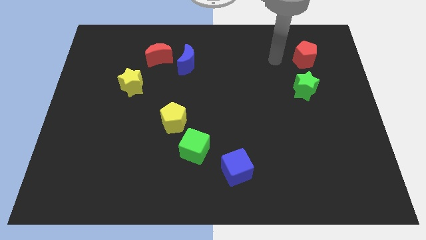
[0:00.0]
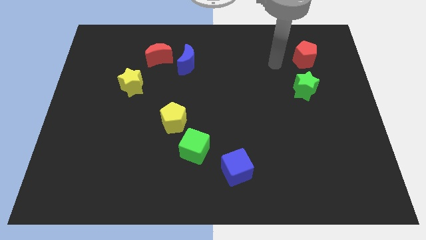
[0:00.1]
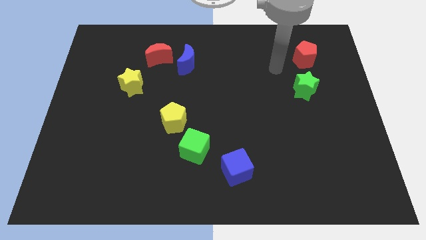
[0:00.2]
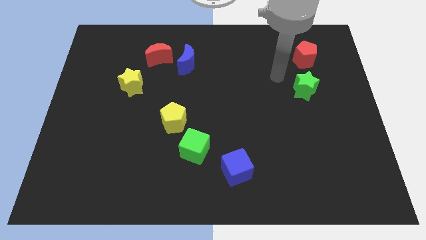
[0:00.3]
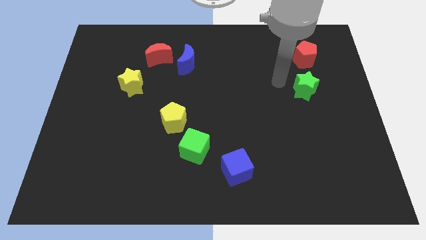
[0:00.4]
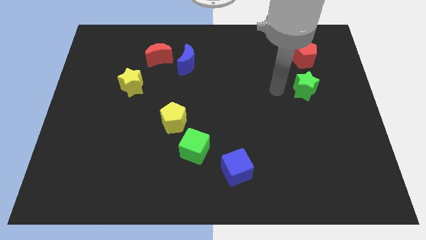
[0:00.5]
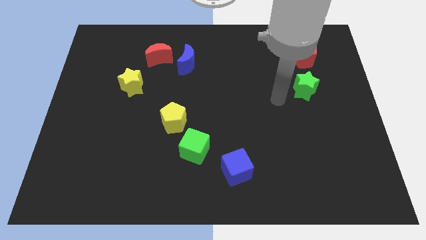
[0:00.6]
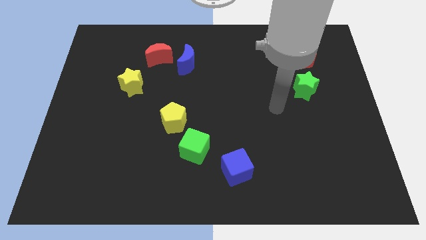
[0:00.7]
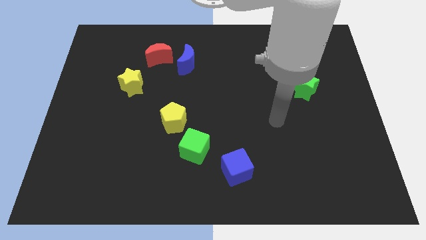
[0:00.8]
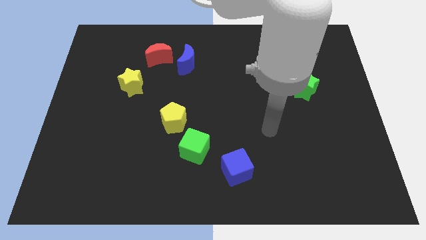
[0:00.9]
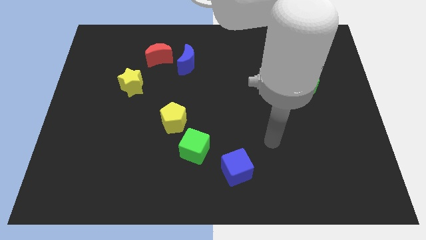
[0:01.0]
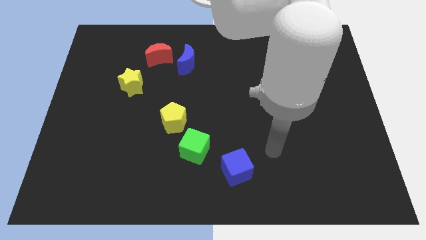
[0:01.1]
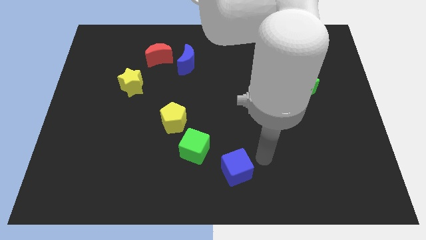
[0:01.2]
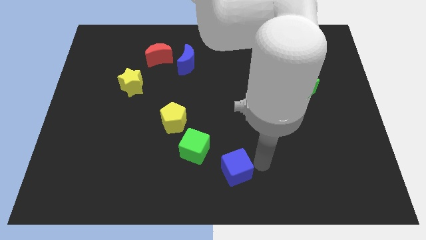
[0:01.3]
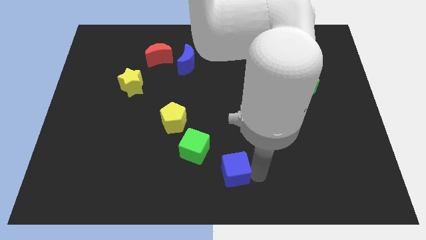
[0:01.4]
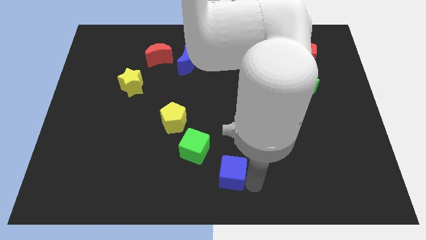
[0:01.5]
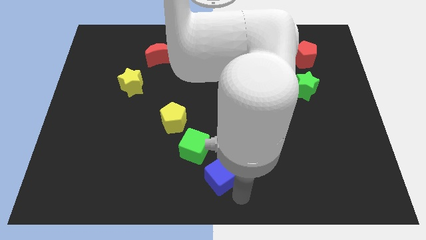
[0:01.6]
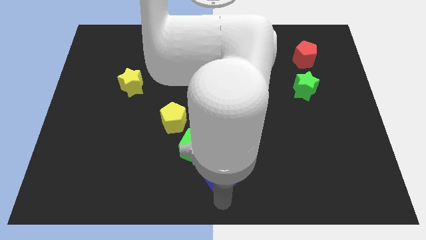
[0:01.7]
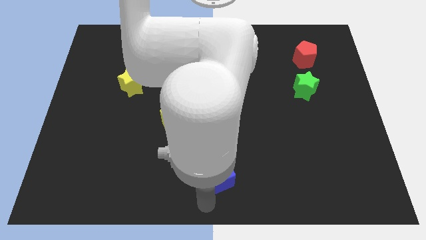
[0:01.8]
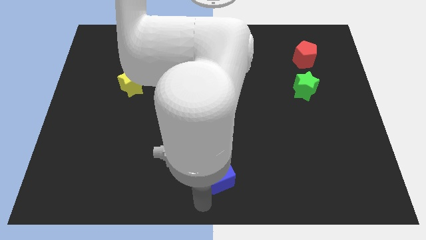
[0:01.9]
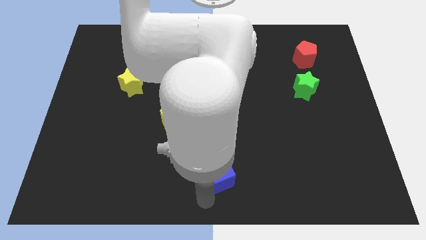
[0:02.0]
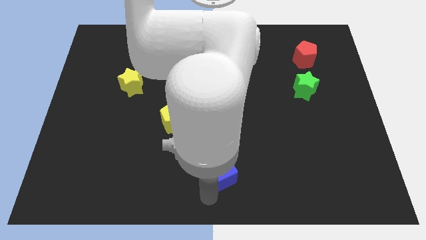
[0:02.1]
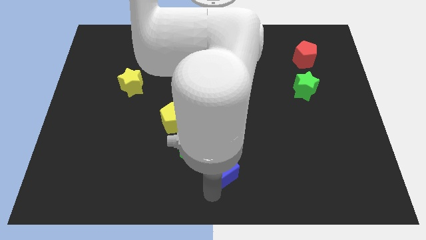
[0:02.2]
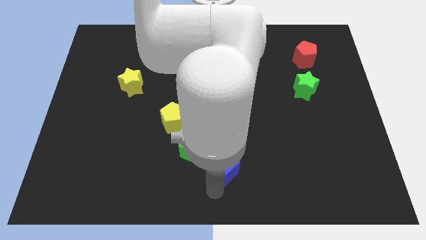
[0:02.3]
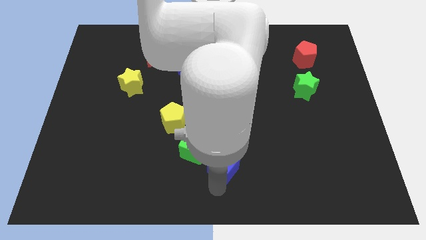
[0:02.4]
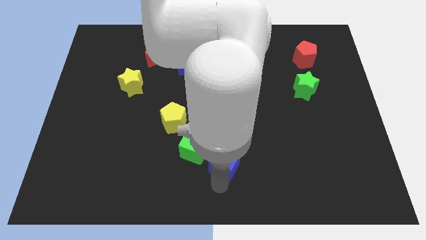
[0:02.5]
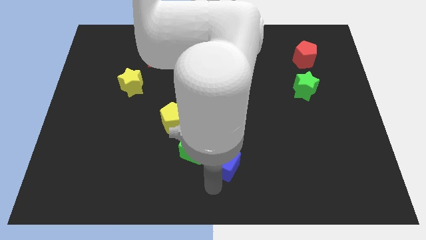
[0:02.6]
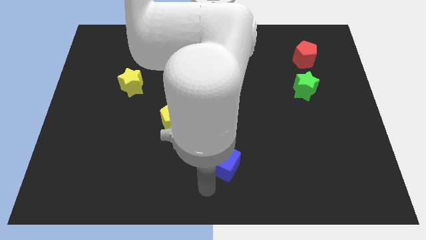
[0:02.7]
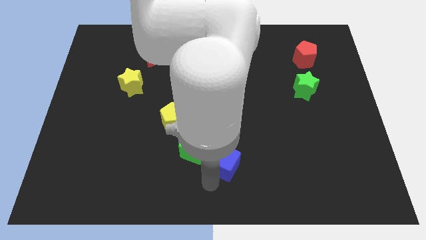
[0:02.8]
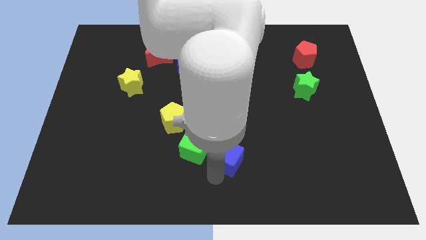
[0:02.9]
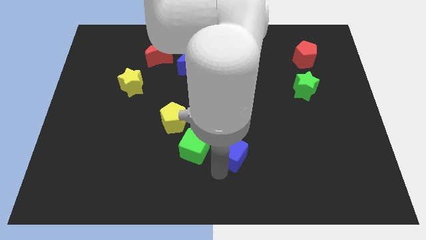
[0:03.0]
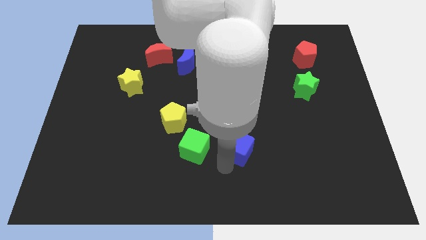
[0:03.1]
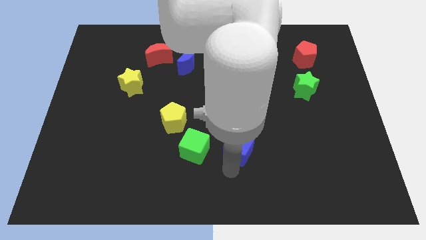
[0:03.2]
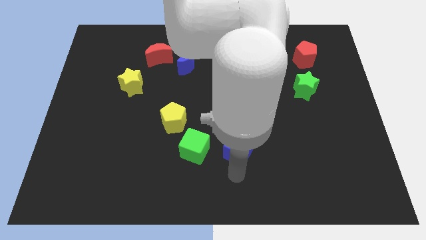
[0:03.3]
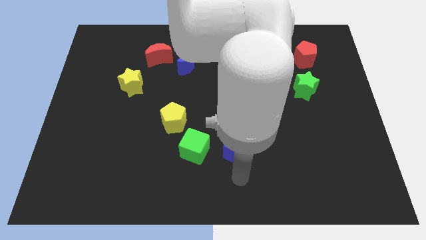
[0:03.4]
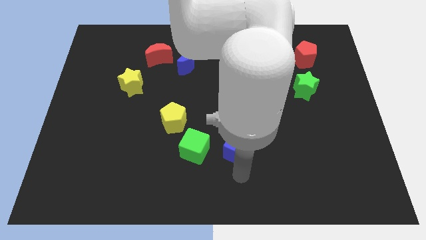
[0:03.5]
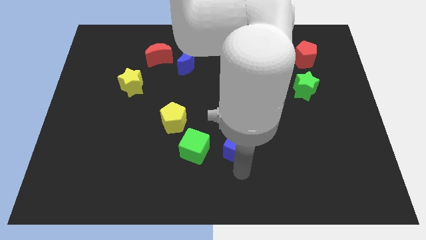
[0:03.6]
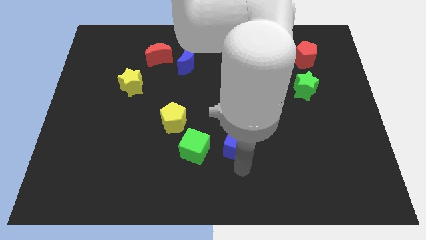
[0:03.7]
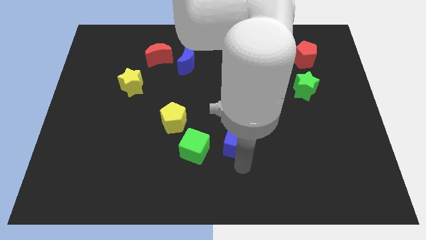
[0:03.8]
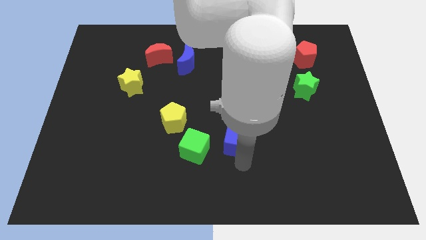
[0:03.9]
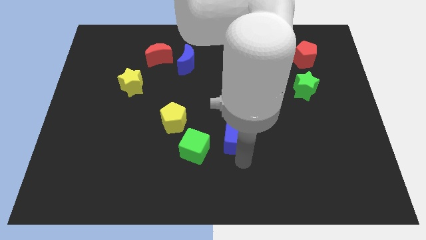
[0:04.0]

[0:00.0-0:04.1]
move the blue cube slightly up

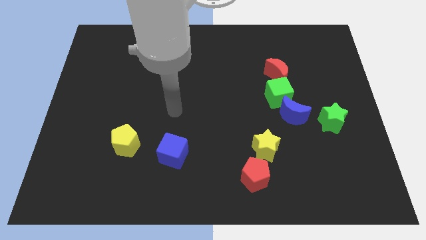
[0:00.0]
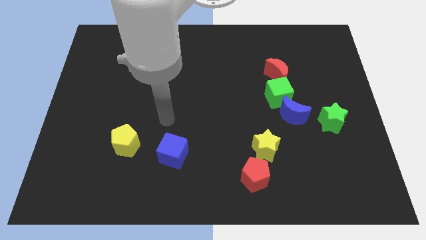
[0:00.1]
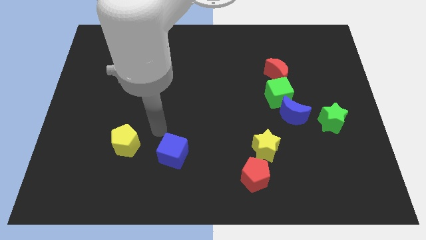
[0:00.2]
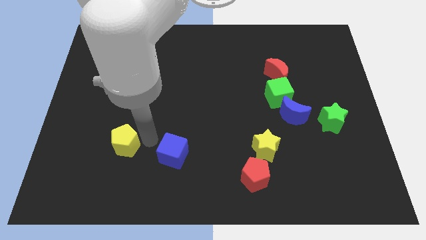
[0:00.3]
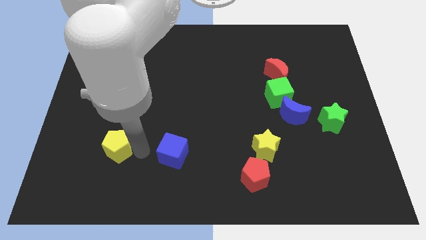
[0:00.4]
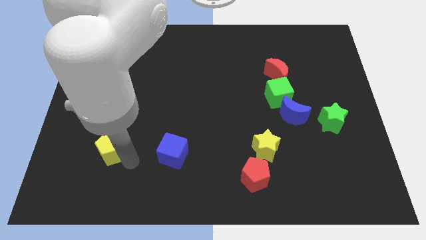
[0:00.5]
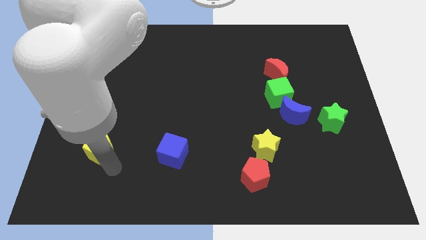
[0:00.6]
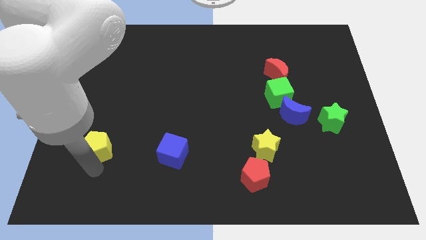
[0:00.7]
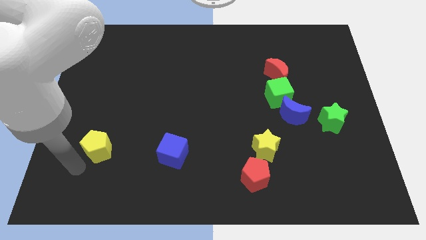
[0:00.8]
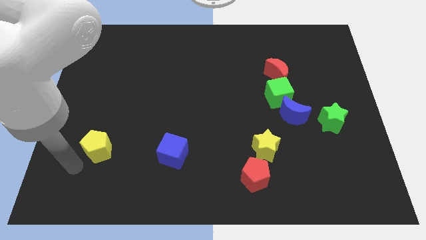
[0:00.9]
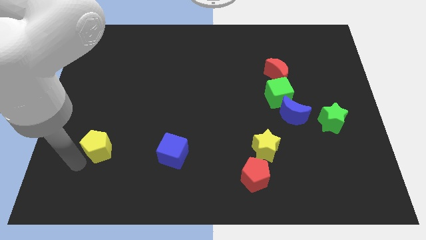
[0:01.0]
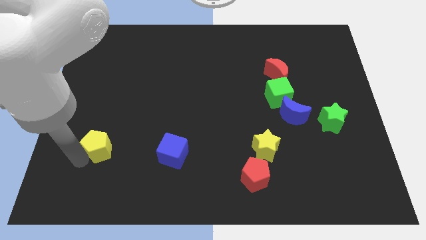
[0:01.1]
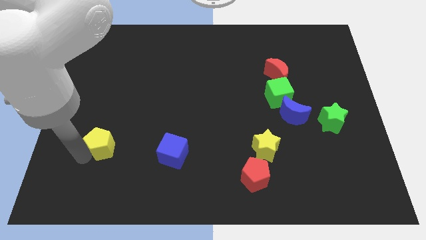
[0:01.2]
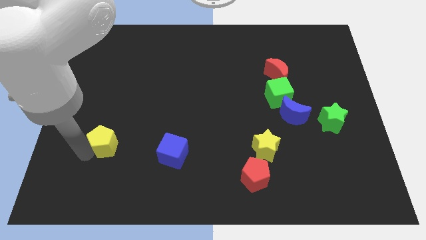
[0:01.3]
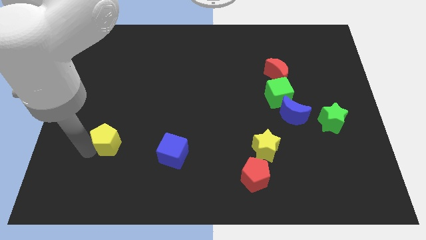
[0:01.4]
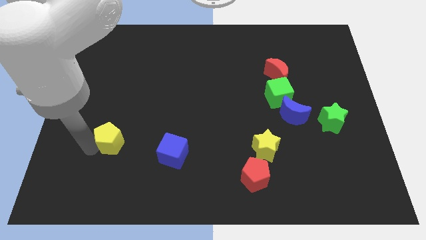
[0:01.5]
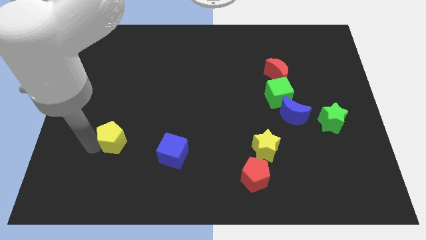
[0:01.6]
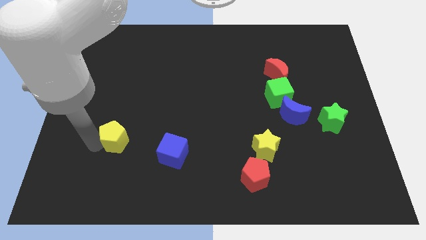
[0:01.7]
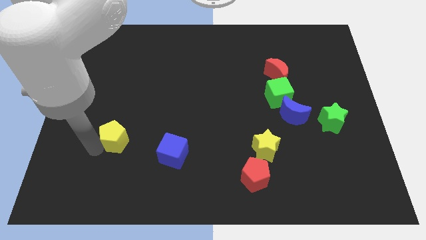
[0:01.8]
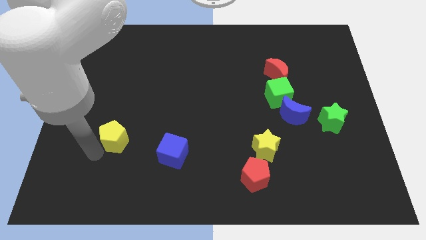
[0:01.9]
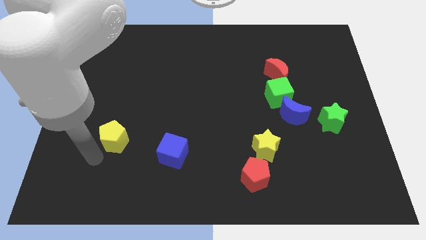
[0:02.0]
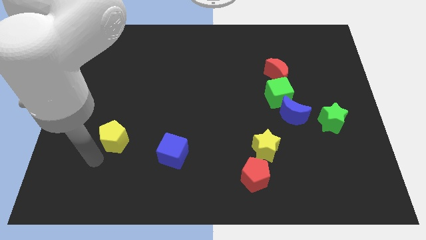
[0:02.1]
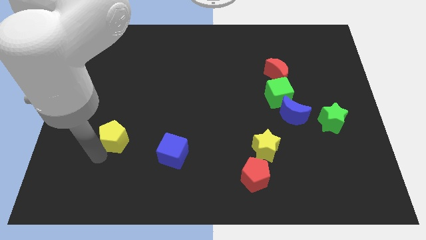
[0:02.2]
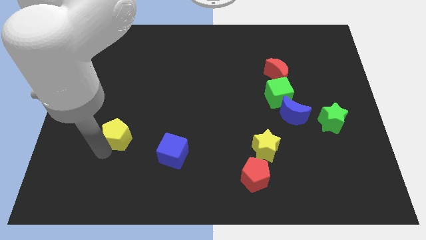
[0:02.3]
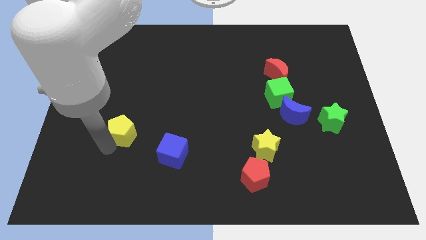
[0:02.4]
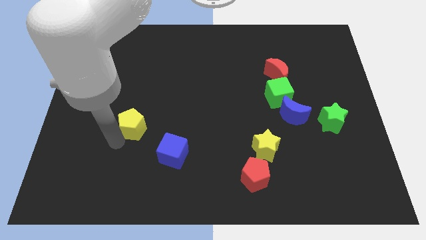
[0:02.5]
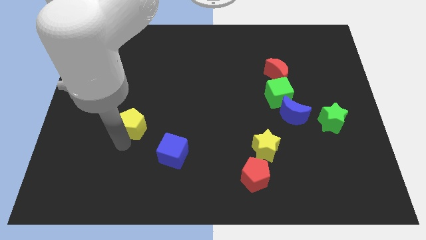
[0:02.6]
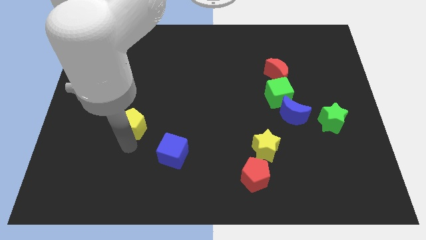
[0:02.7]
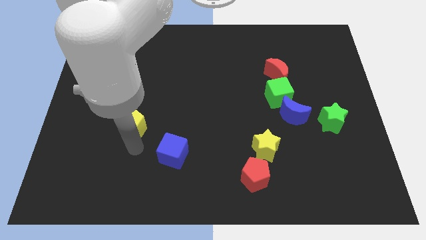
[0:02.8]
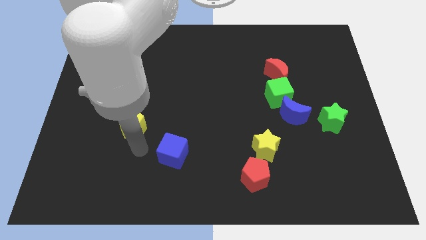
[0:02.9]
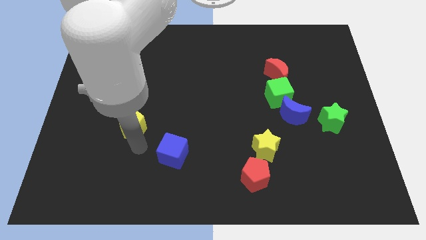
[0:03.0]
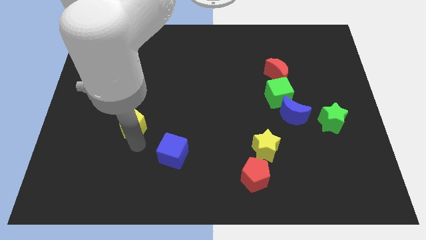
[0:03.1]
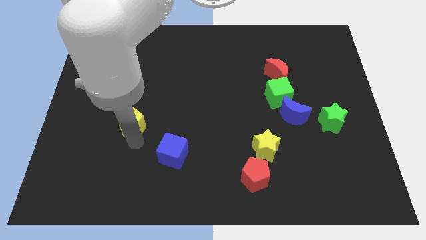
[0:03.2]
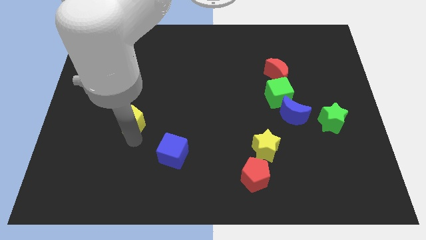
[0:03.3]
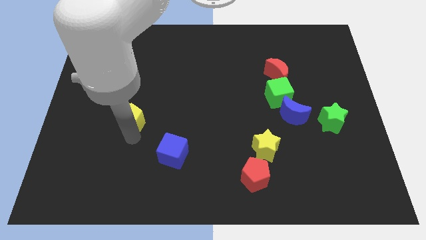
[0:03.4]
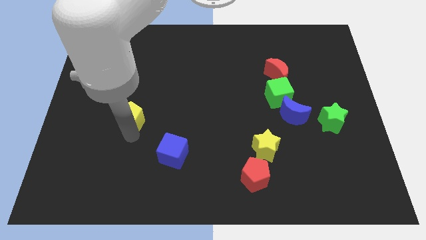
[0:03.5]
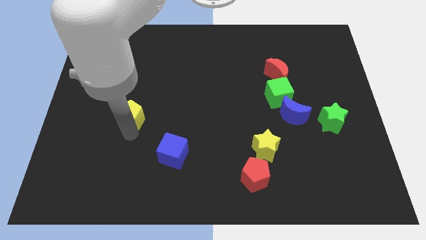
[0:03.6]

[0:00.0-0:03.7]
push the yellow pentagon up somewhat

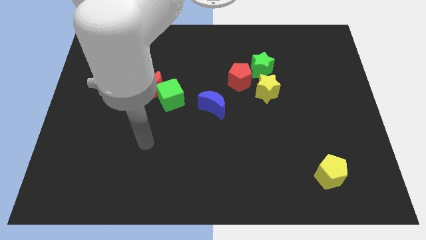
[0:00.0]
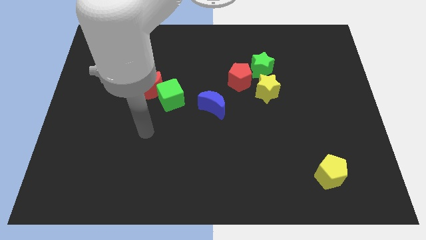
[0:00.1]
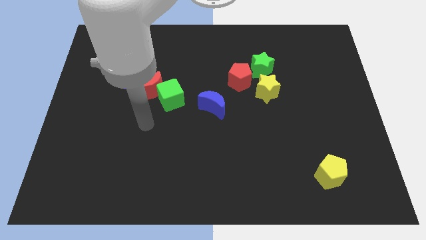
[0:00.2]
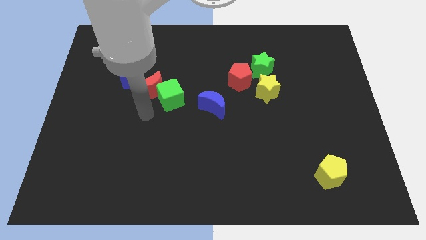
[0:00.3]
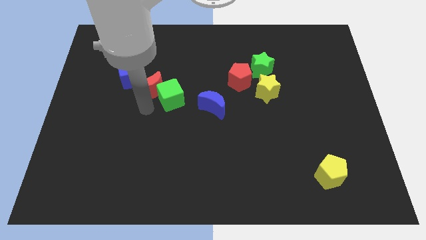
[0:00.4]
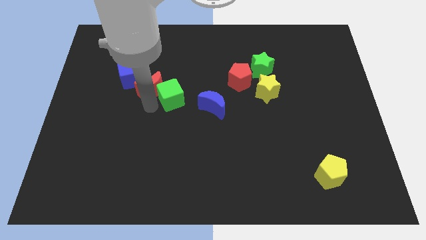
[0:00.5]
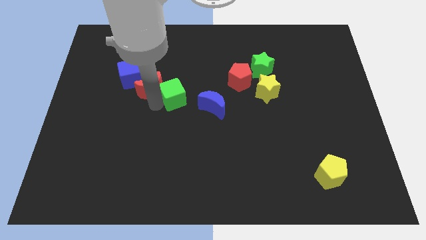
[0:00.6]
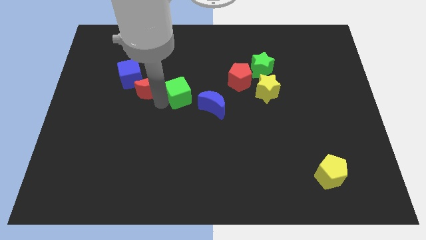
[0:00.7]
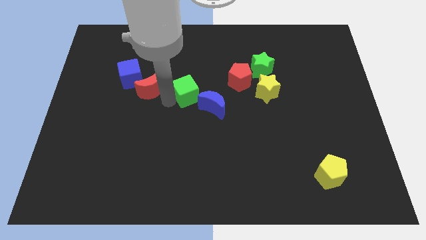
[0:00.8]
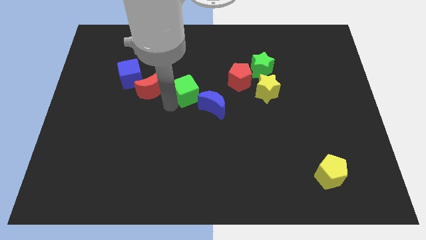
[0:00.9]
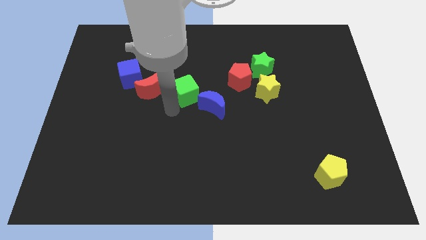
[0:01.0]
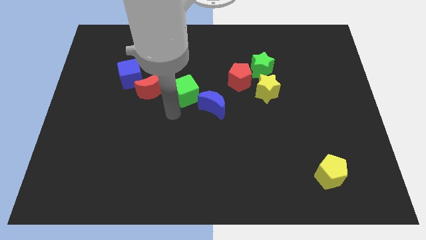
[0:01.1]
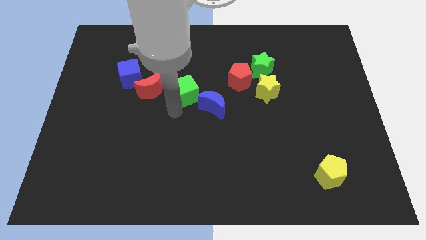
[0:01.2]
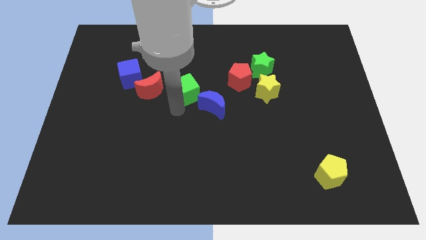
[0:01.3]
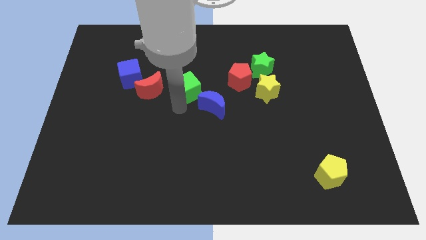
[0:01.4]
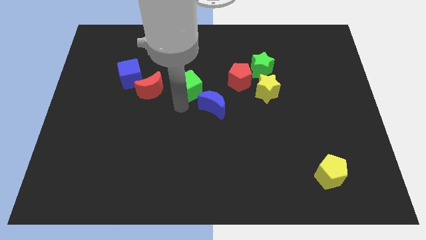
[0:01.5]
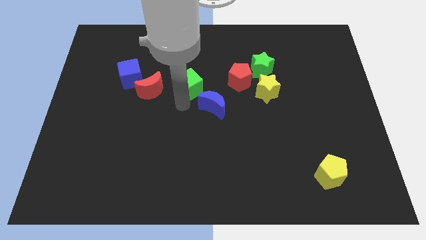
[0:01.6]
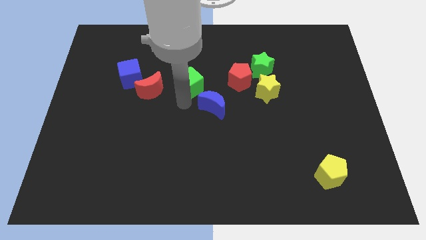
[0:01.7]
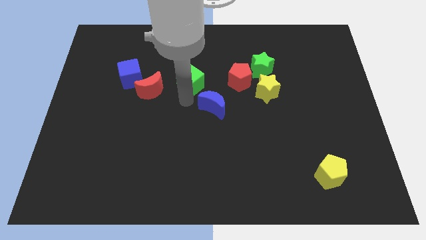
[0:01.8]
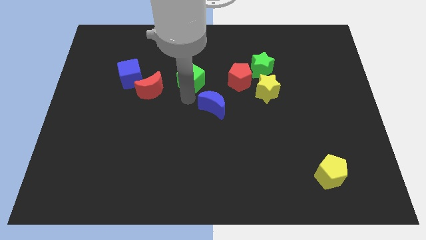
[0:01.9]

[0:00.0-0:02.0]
push the green cube up and right a little
